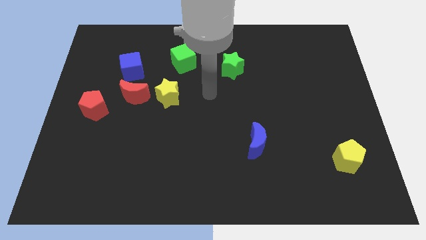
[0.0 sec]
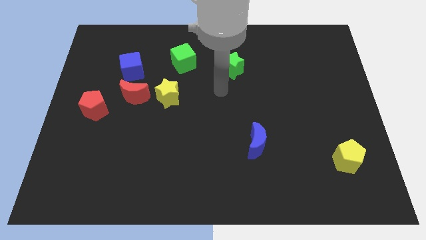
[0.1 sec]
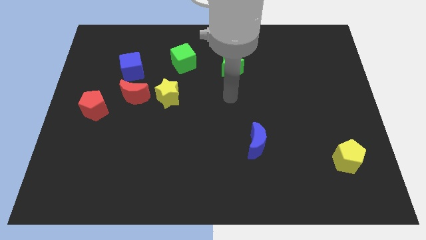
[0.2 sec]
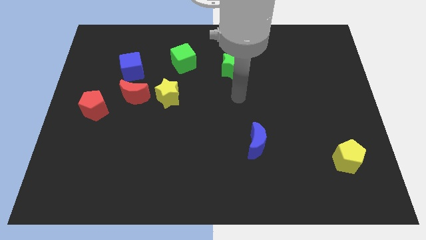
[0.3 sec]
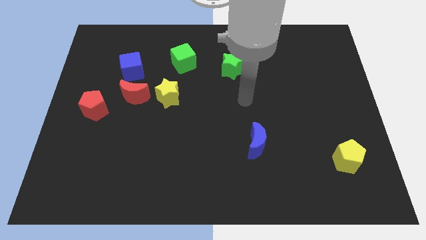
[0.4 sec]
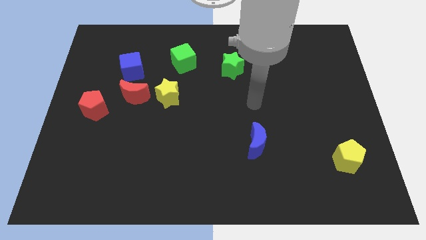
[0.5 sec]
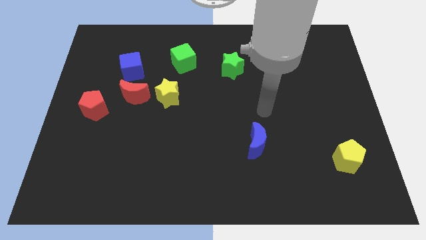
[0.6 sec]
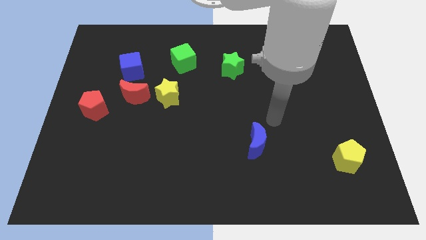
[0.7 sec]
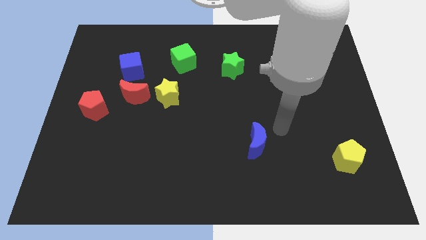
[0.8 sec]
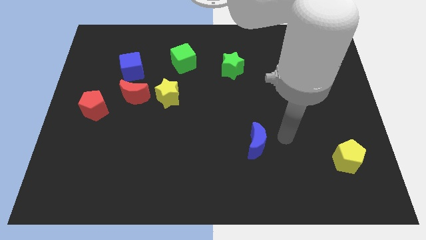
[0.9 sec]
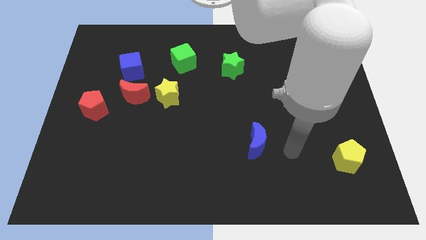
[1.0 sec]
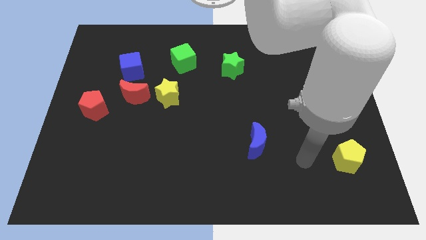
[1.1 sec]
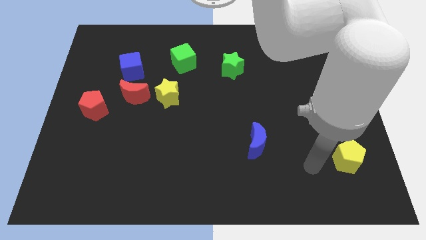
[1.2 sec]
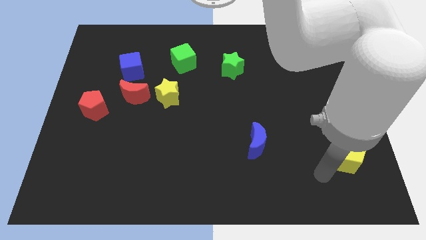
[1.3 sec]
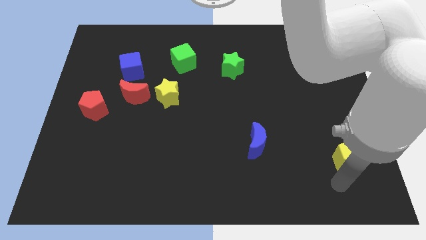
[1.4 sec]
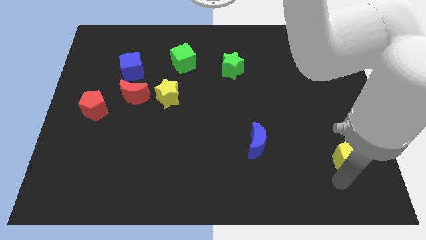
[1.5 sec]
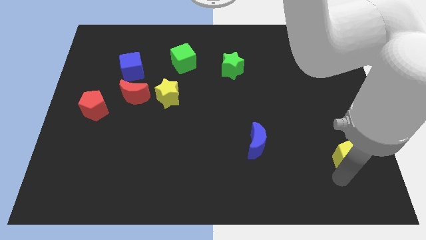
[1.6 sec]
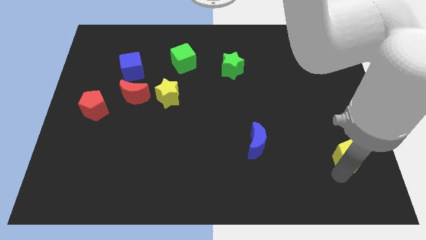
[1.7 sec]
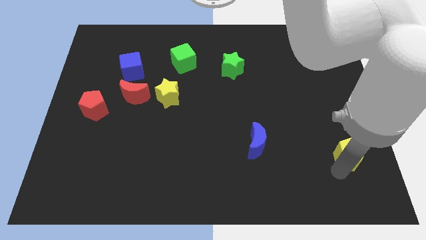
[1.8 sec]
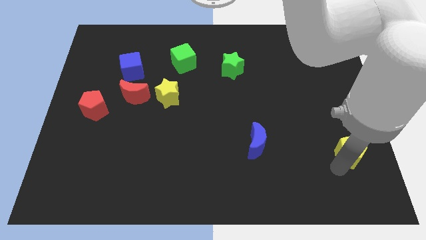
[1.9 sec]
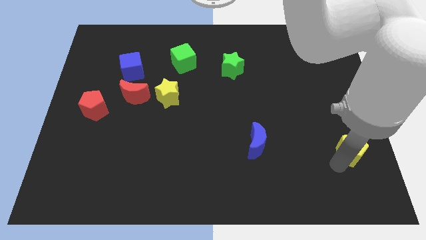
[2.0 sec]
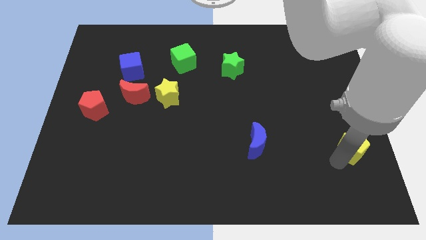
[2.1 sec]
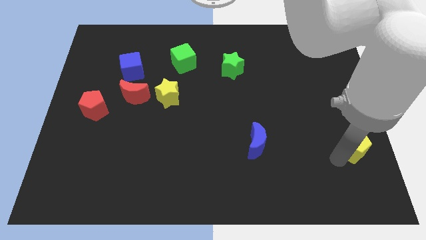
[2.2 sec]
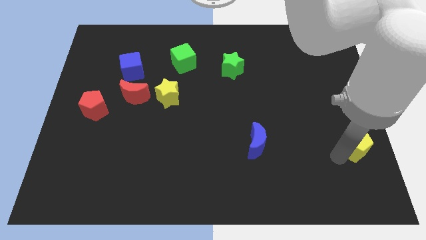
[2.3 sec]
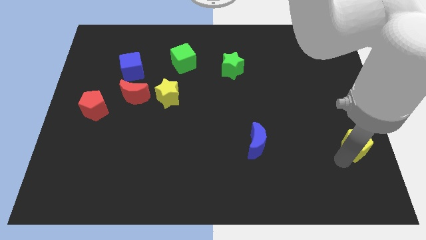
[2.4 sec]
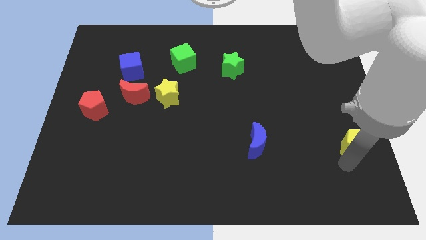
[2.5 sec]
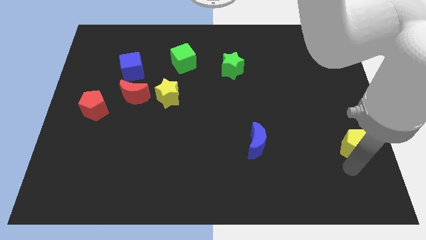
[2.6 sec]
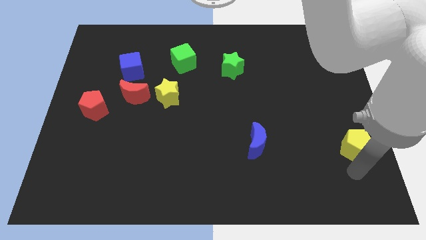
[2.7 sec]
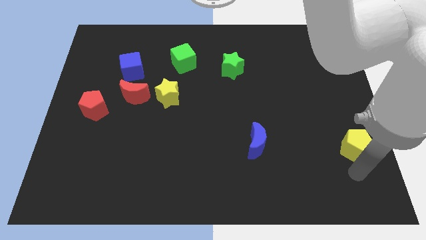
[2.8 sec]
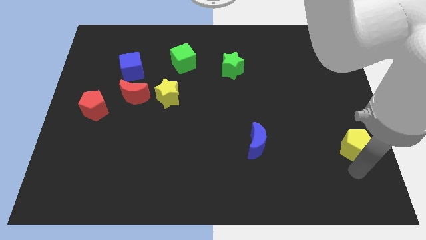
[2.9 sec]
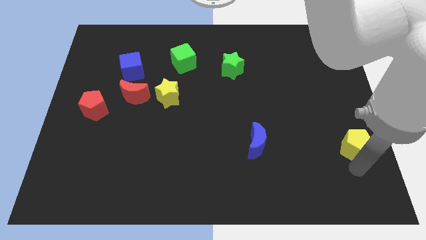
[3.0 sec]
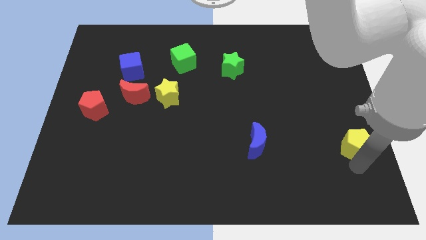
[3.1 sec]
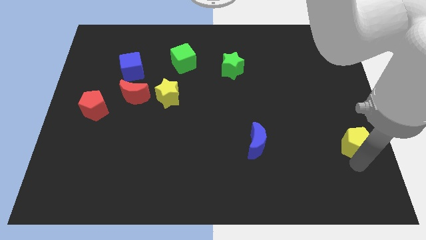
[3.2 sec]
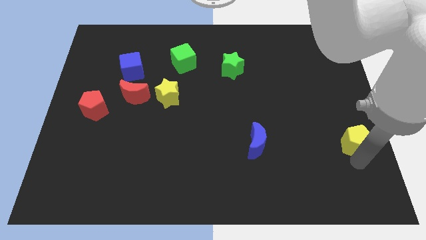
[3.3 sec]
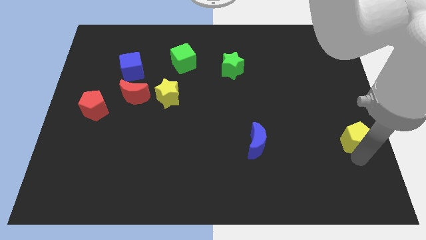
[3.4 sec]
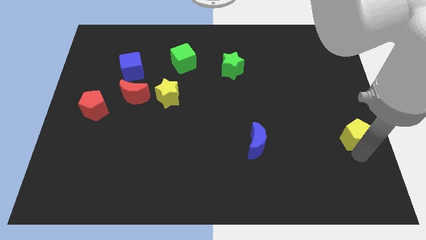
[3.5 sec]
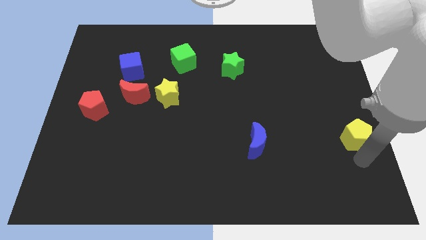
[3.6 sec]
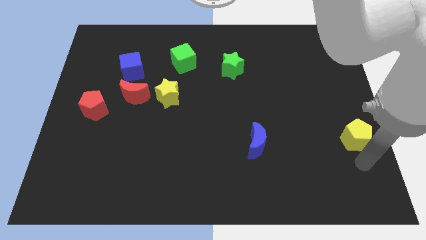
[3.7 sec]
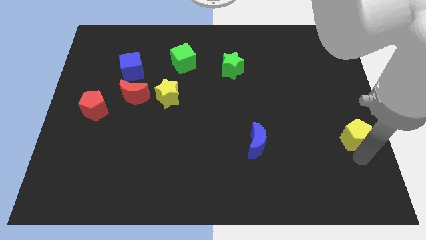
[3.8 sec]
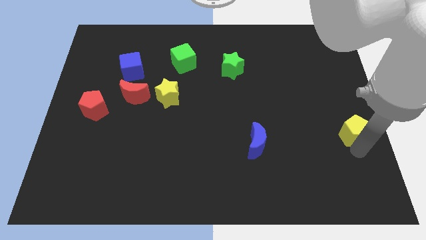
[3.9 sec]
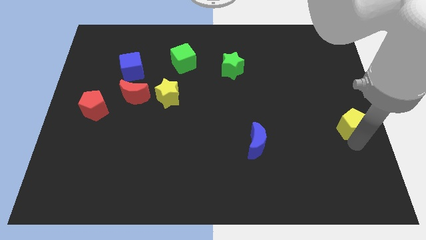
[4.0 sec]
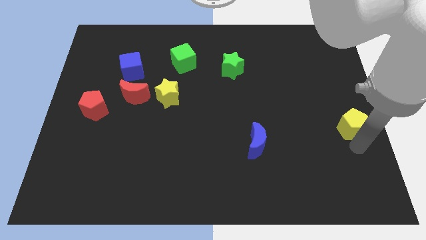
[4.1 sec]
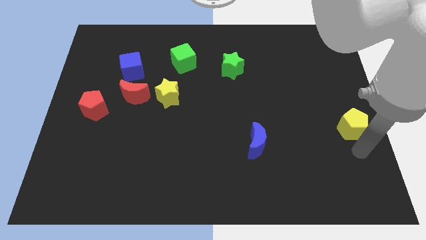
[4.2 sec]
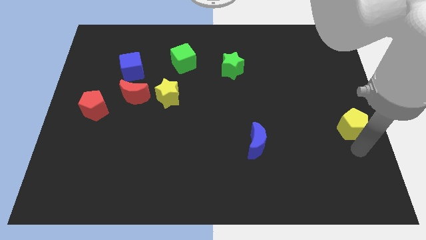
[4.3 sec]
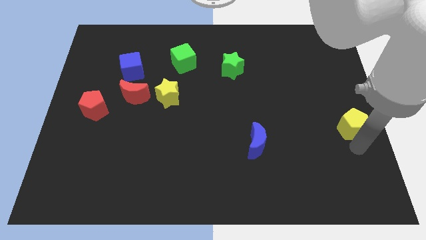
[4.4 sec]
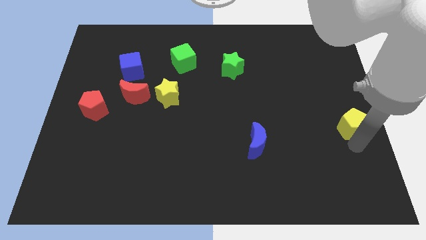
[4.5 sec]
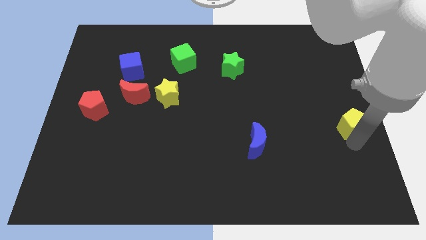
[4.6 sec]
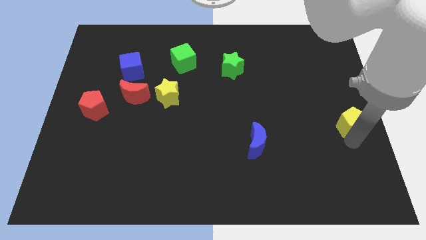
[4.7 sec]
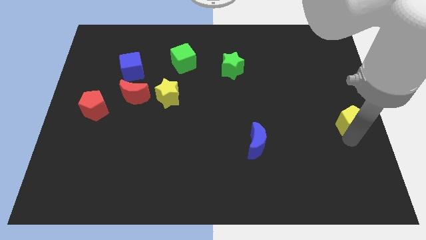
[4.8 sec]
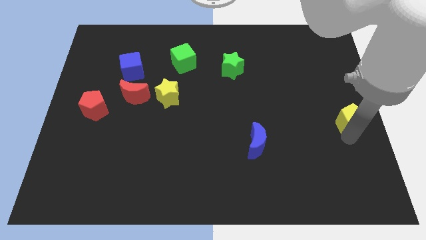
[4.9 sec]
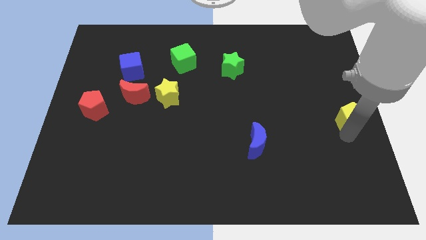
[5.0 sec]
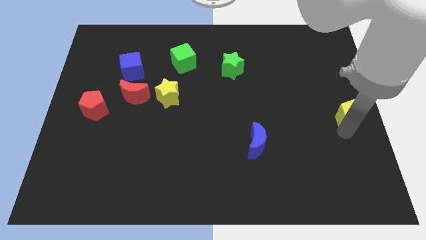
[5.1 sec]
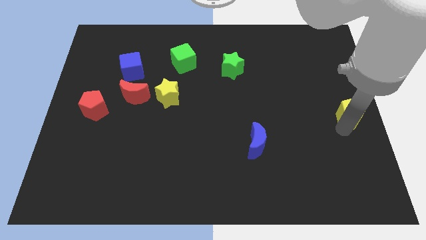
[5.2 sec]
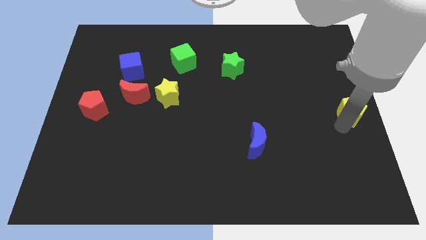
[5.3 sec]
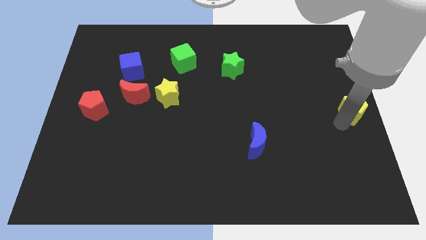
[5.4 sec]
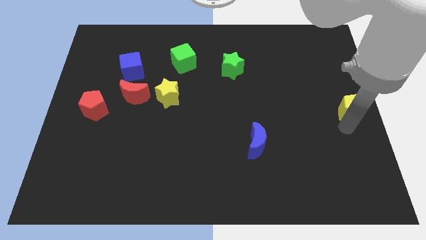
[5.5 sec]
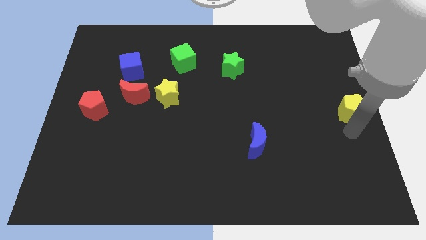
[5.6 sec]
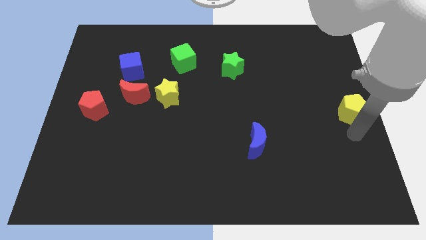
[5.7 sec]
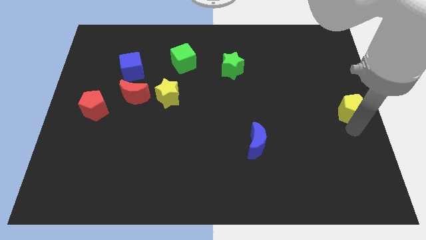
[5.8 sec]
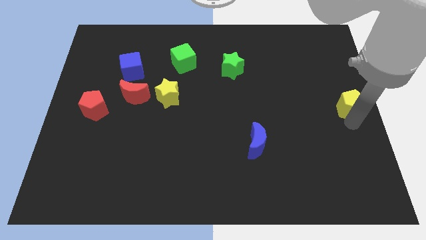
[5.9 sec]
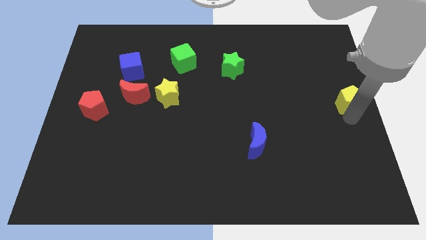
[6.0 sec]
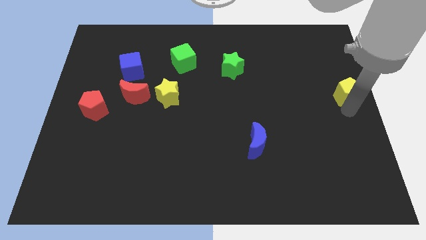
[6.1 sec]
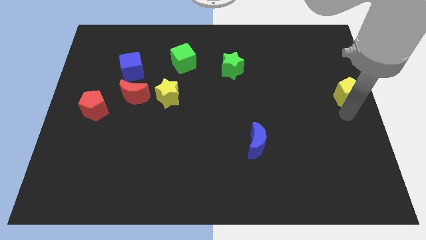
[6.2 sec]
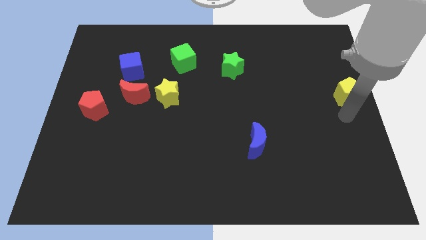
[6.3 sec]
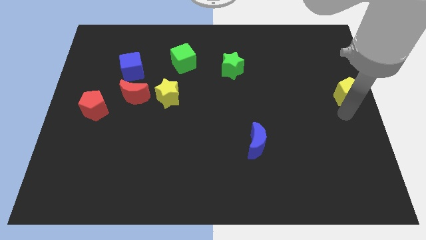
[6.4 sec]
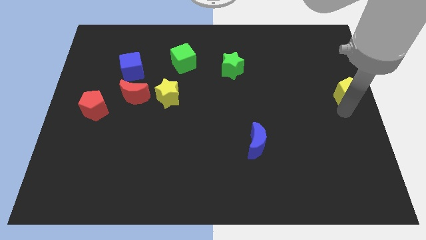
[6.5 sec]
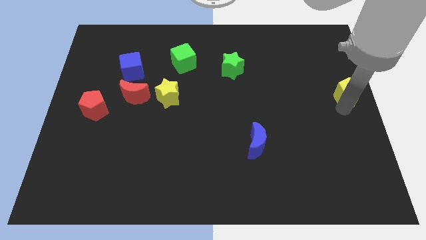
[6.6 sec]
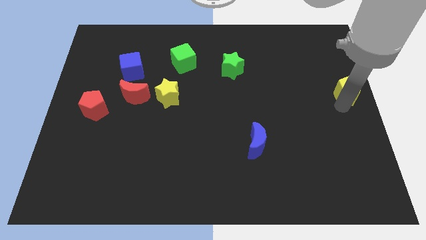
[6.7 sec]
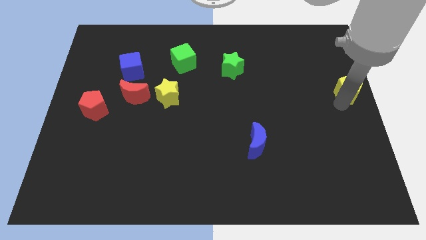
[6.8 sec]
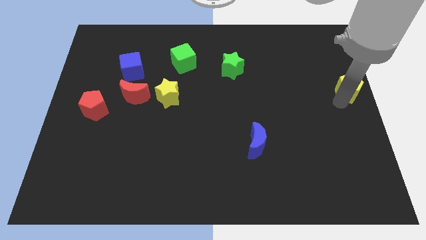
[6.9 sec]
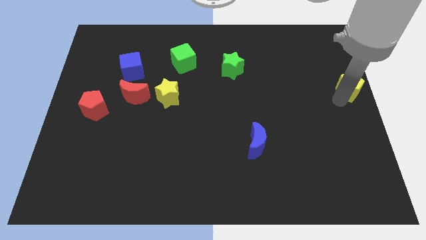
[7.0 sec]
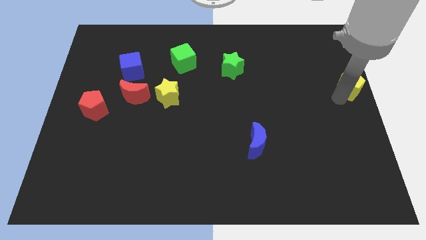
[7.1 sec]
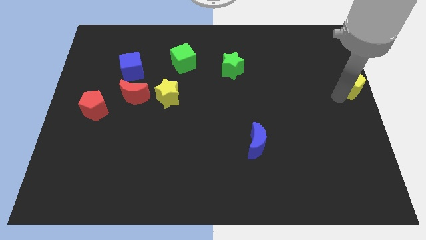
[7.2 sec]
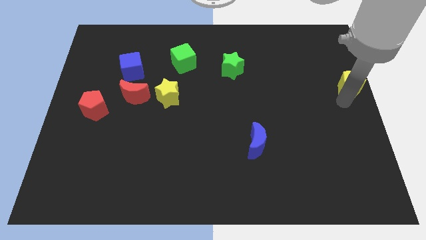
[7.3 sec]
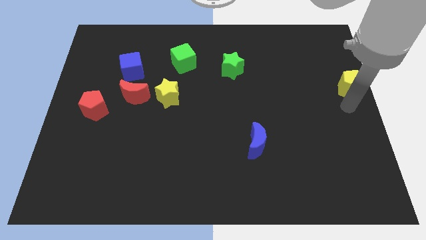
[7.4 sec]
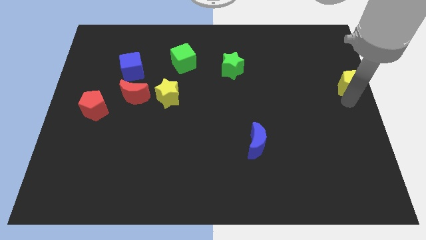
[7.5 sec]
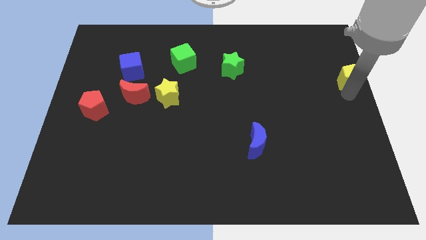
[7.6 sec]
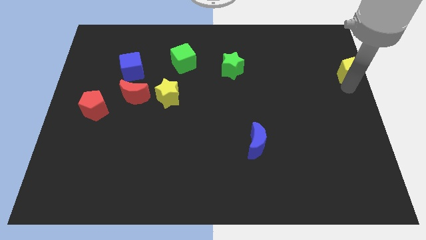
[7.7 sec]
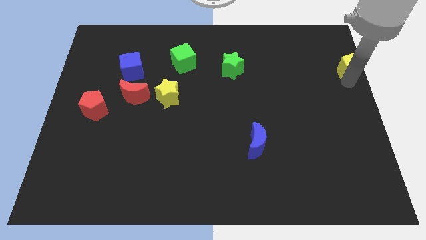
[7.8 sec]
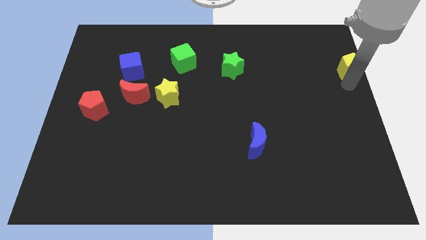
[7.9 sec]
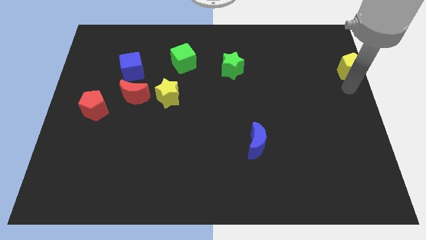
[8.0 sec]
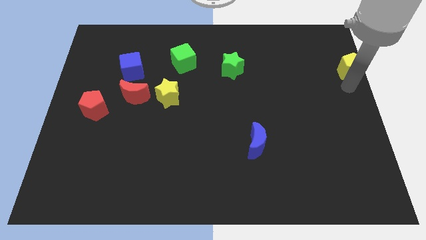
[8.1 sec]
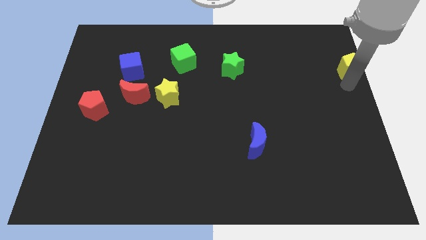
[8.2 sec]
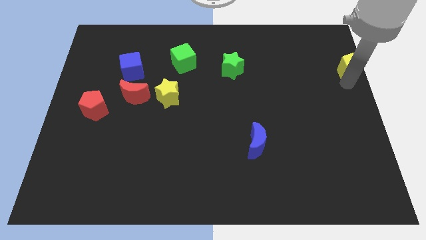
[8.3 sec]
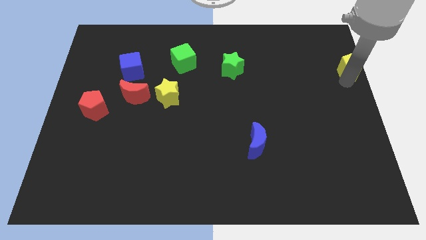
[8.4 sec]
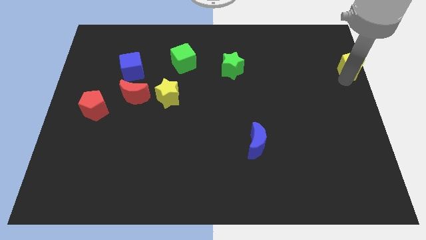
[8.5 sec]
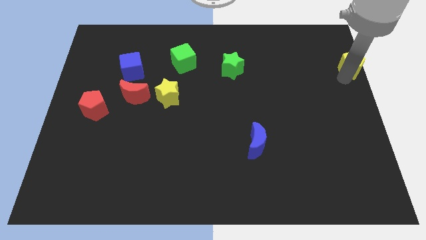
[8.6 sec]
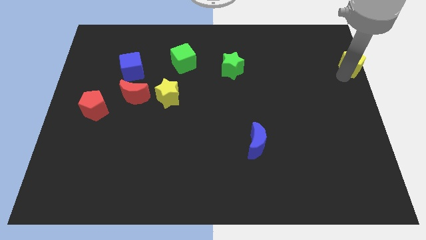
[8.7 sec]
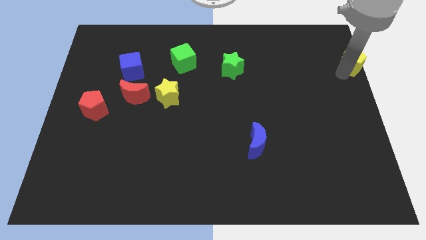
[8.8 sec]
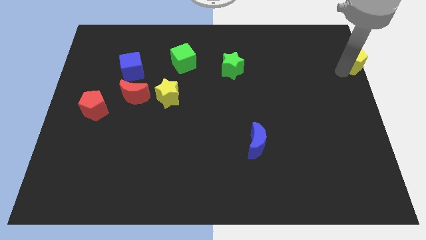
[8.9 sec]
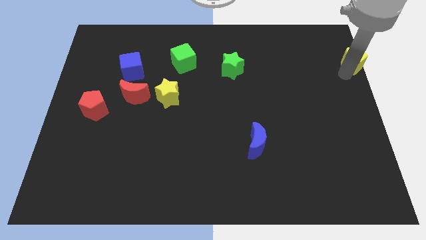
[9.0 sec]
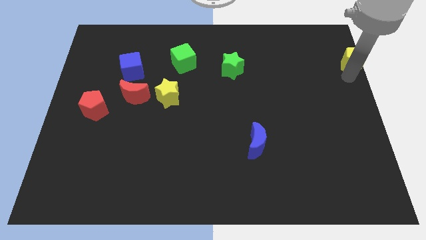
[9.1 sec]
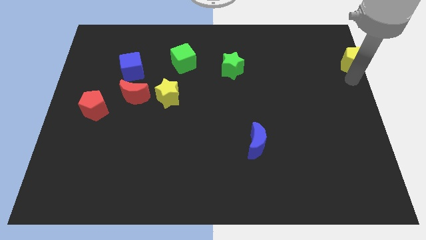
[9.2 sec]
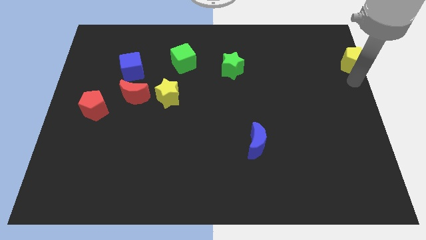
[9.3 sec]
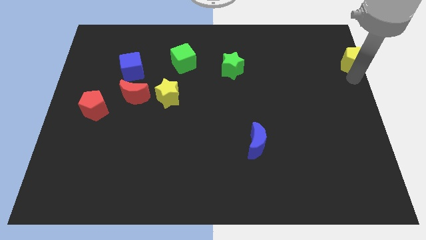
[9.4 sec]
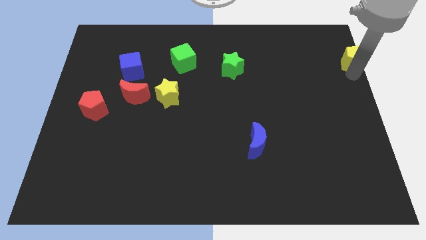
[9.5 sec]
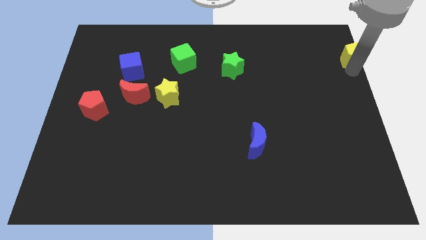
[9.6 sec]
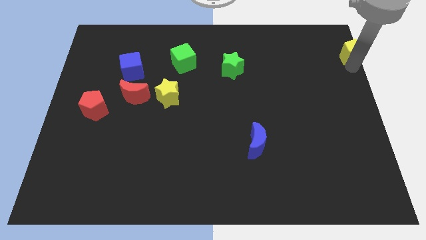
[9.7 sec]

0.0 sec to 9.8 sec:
put the yellow pentagon to the top right corner
